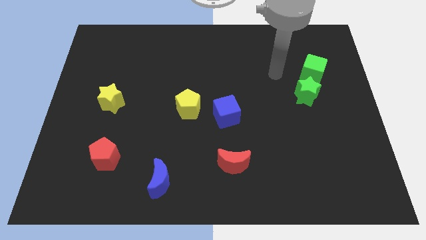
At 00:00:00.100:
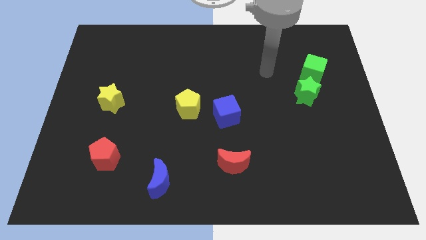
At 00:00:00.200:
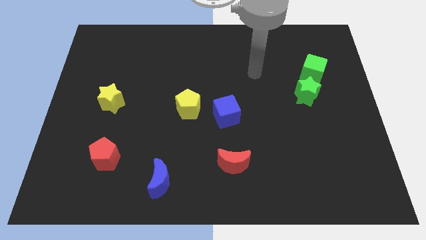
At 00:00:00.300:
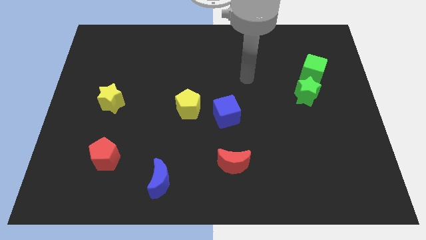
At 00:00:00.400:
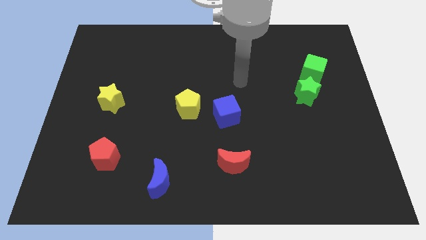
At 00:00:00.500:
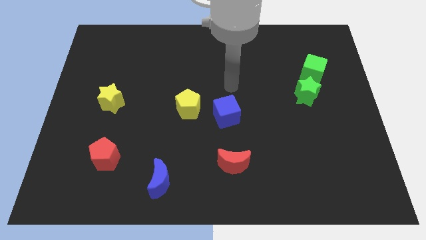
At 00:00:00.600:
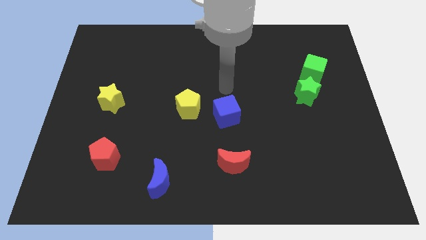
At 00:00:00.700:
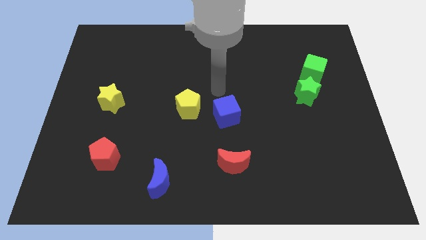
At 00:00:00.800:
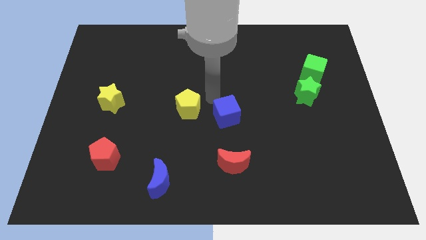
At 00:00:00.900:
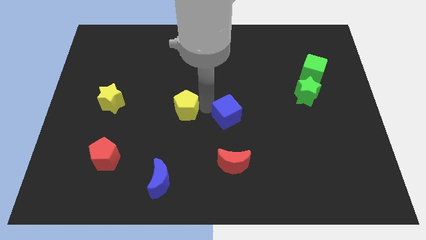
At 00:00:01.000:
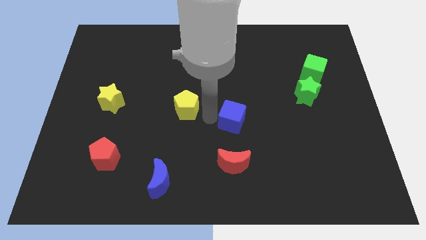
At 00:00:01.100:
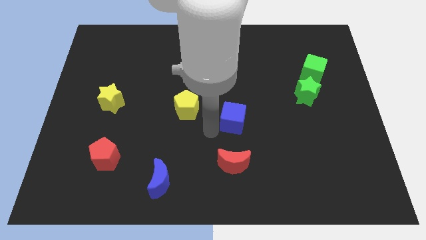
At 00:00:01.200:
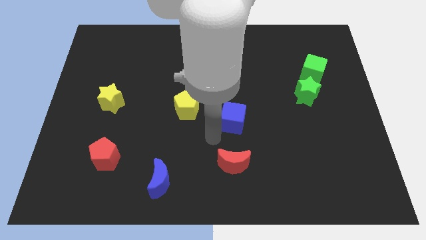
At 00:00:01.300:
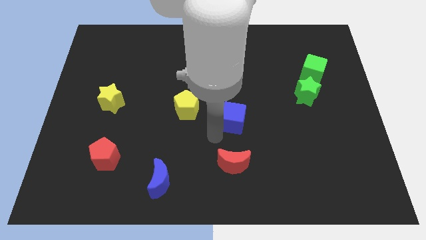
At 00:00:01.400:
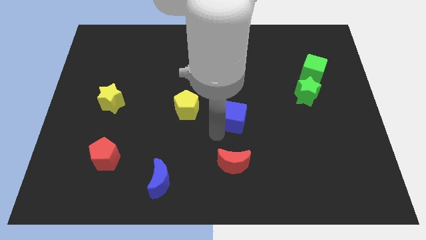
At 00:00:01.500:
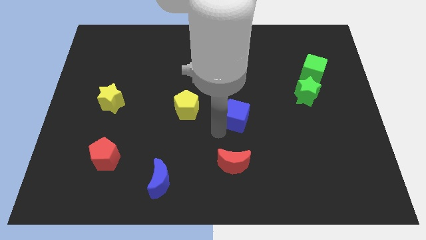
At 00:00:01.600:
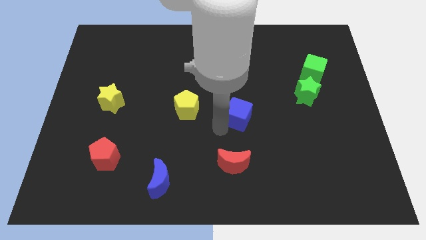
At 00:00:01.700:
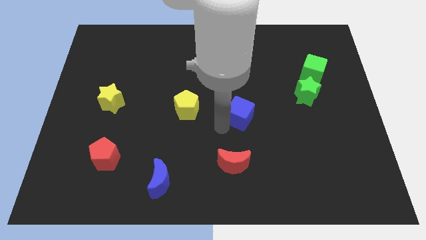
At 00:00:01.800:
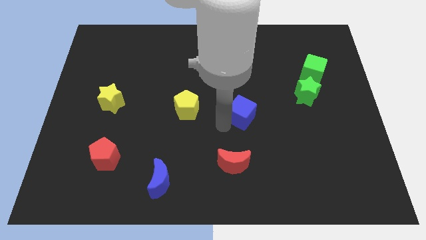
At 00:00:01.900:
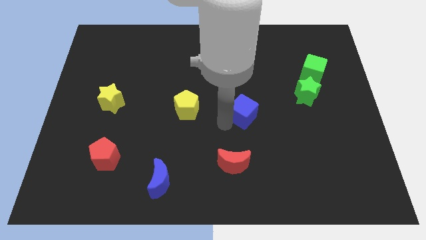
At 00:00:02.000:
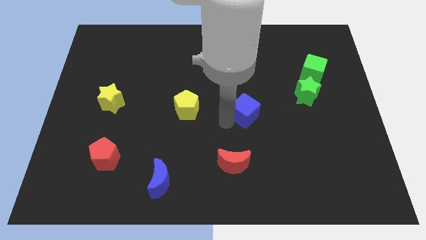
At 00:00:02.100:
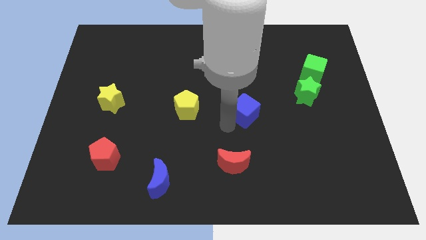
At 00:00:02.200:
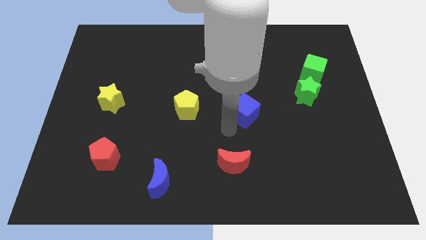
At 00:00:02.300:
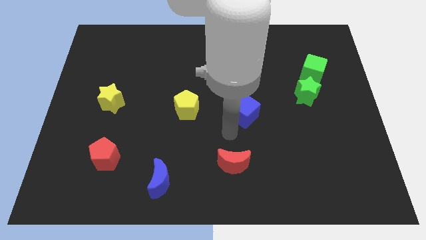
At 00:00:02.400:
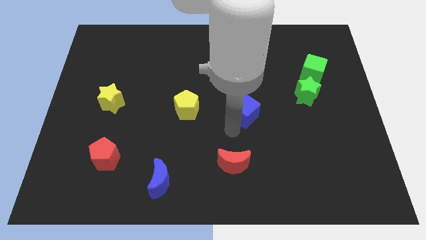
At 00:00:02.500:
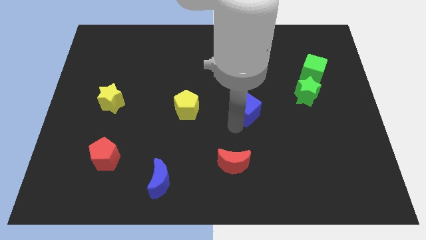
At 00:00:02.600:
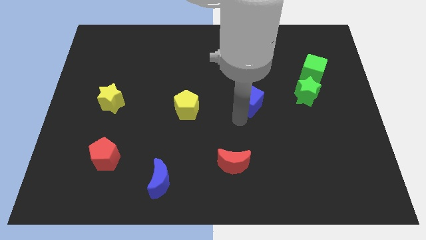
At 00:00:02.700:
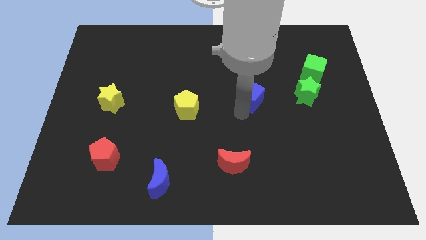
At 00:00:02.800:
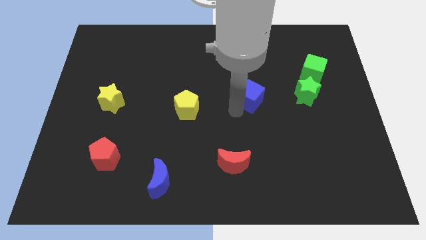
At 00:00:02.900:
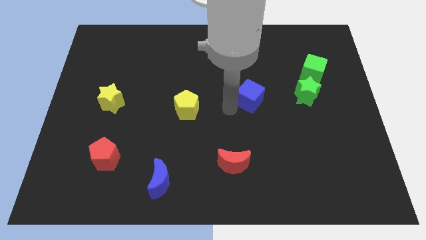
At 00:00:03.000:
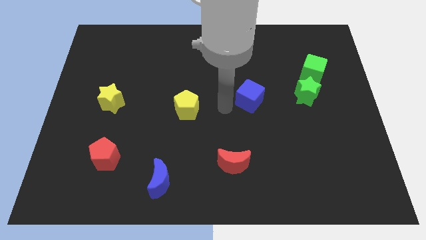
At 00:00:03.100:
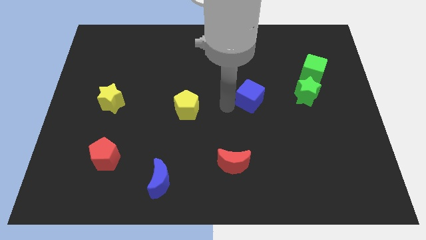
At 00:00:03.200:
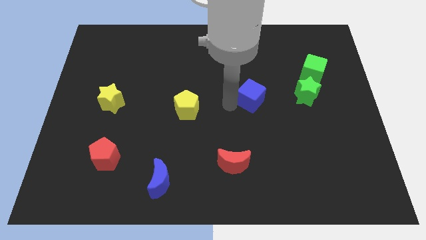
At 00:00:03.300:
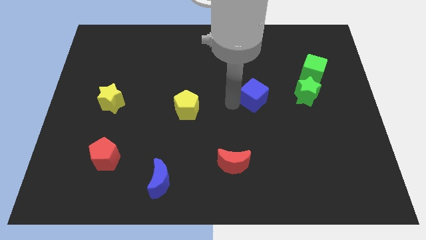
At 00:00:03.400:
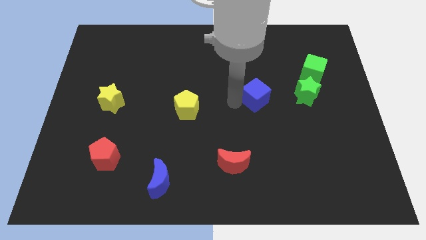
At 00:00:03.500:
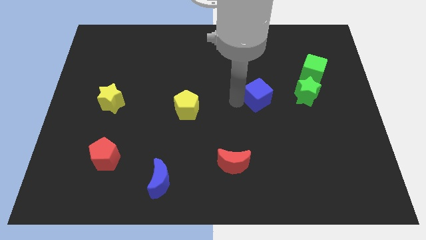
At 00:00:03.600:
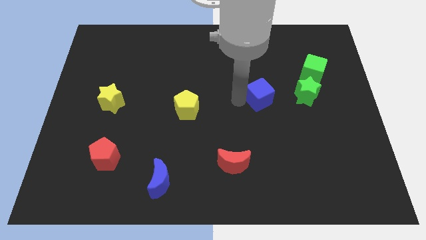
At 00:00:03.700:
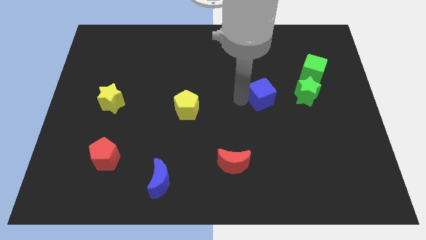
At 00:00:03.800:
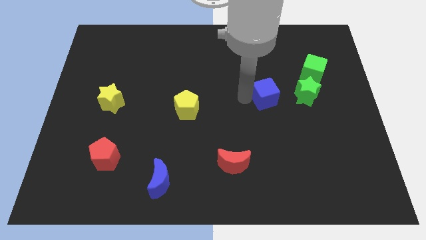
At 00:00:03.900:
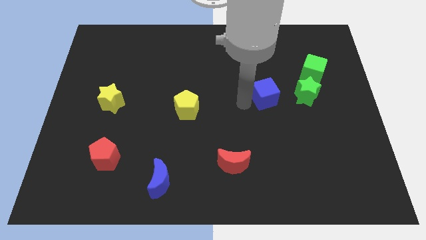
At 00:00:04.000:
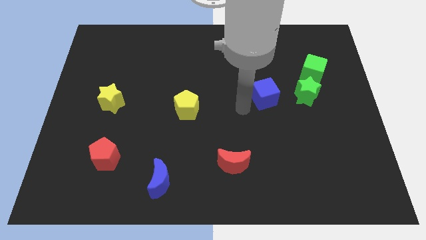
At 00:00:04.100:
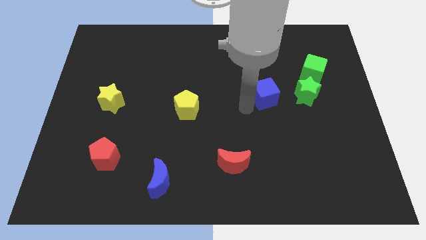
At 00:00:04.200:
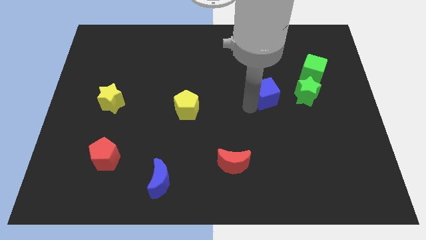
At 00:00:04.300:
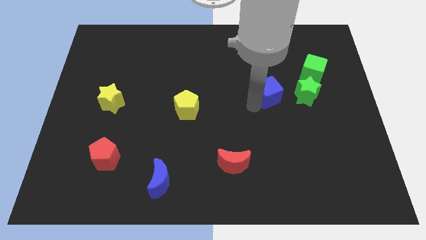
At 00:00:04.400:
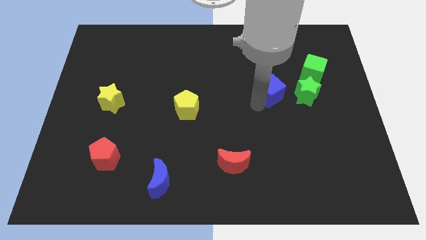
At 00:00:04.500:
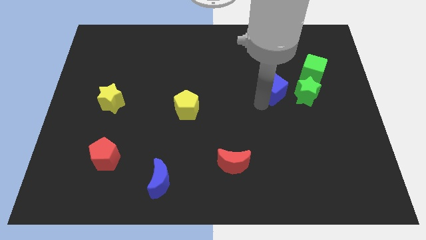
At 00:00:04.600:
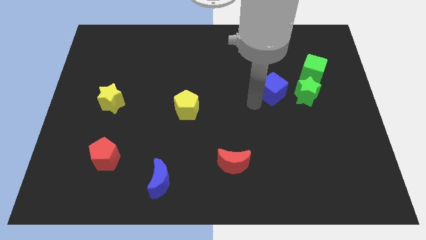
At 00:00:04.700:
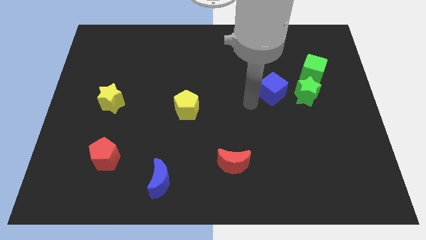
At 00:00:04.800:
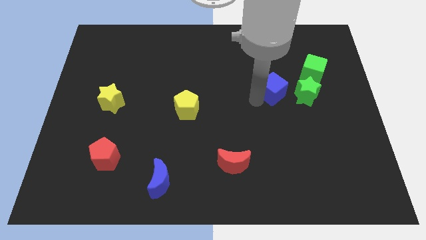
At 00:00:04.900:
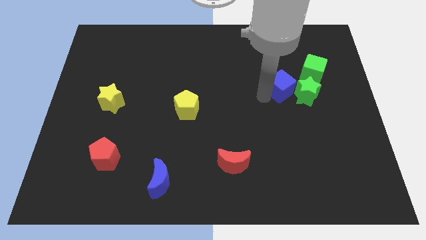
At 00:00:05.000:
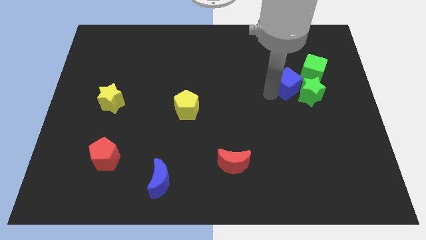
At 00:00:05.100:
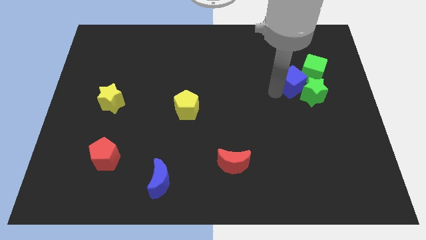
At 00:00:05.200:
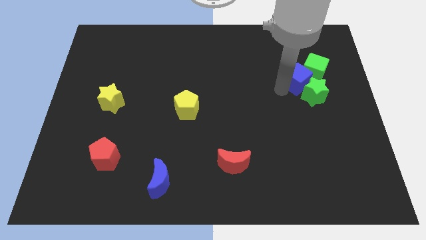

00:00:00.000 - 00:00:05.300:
move the blue cube next to the green cube

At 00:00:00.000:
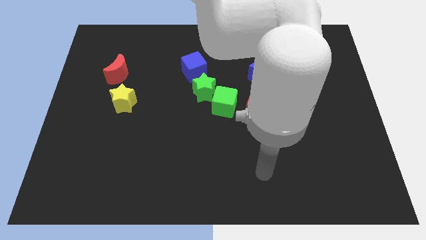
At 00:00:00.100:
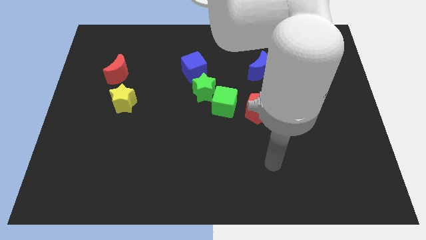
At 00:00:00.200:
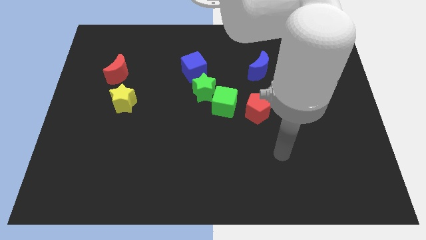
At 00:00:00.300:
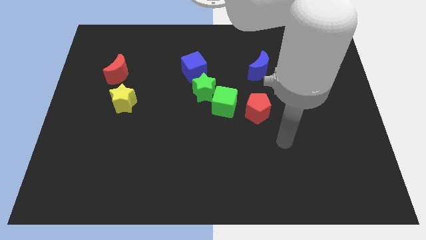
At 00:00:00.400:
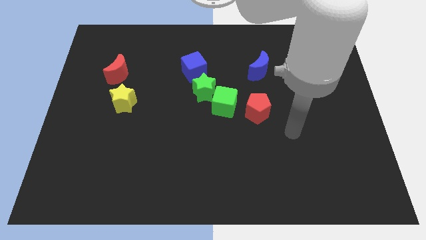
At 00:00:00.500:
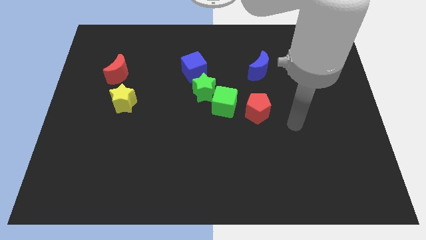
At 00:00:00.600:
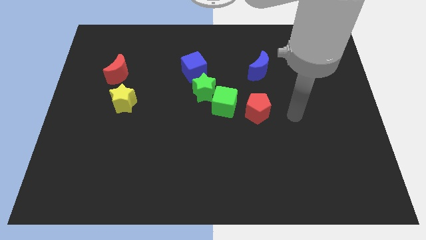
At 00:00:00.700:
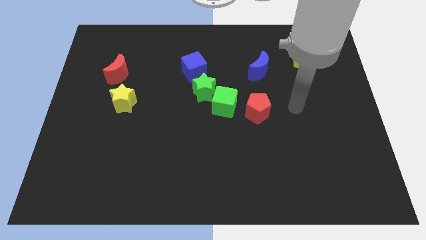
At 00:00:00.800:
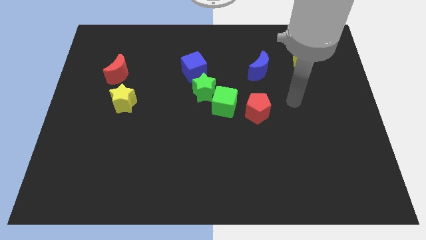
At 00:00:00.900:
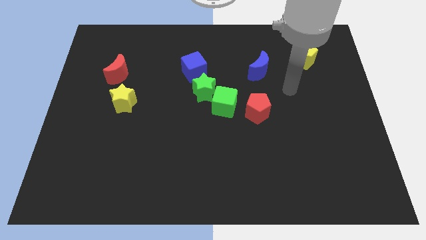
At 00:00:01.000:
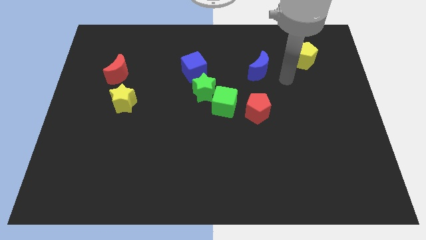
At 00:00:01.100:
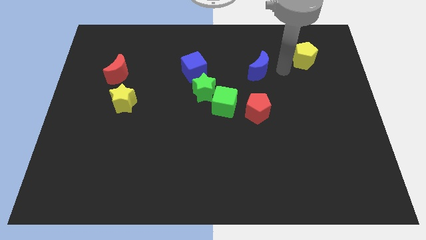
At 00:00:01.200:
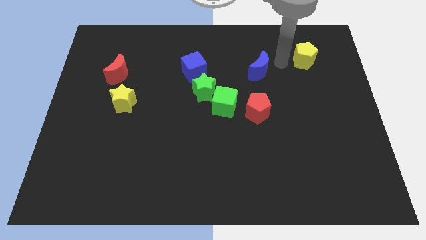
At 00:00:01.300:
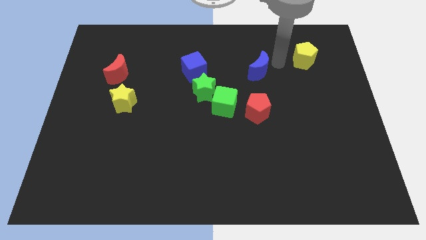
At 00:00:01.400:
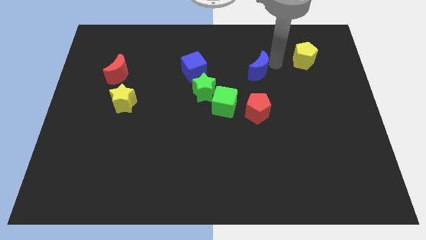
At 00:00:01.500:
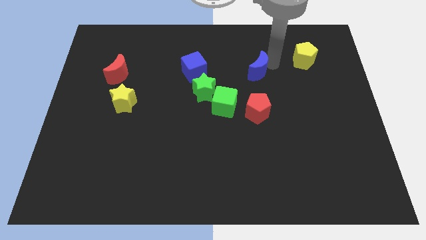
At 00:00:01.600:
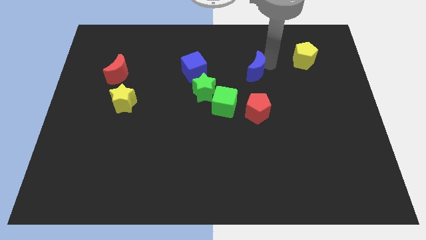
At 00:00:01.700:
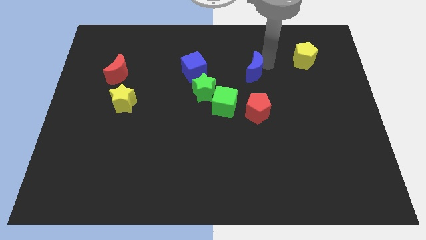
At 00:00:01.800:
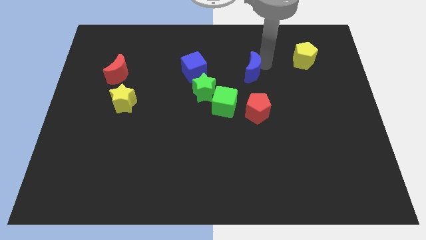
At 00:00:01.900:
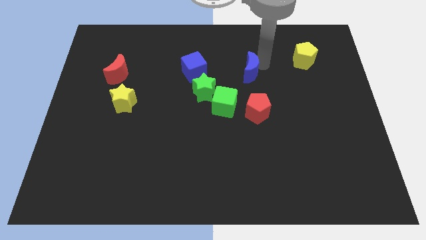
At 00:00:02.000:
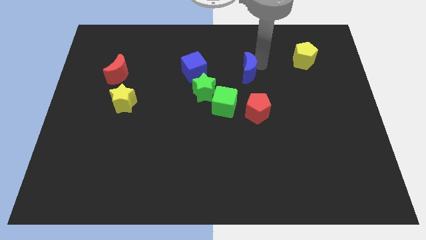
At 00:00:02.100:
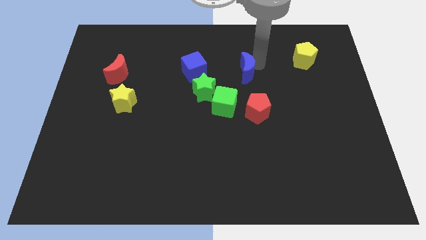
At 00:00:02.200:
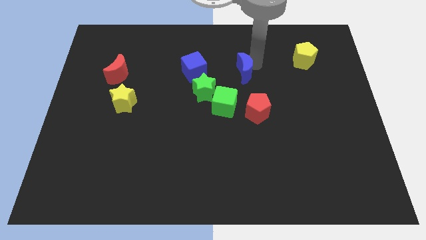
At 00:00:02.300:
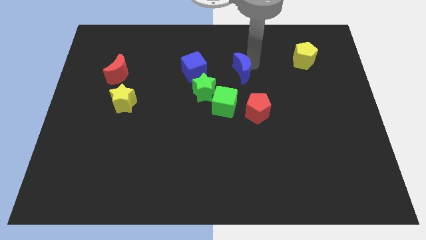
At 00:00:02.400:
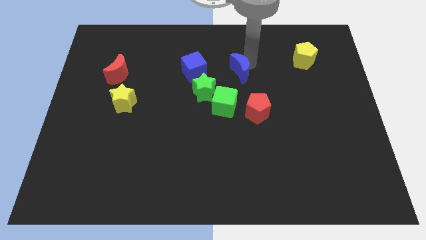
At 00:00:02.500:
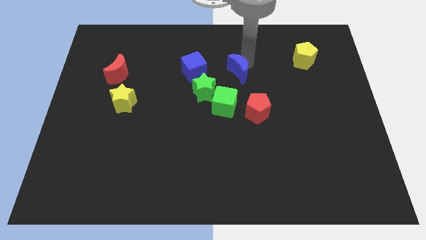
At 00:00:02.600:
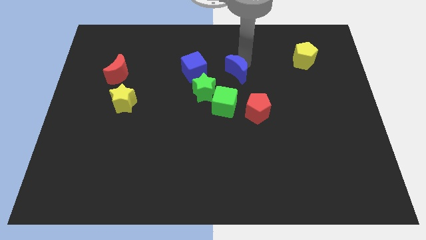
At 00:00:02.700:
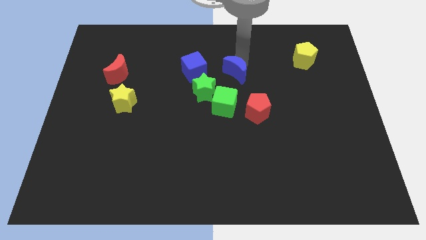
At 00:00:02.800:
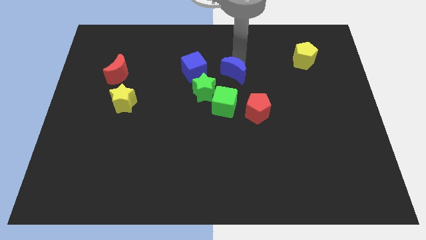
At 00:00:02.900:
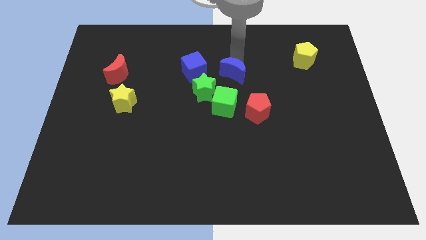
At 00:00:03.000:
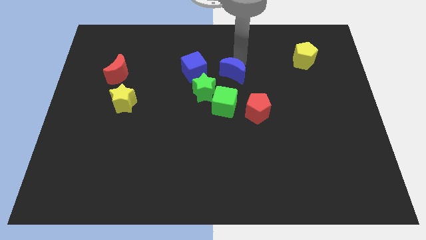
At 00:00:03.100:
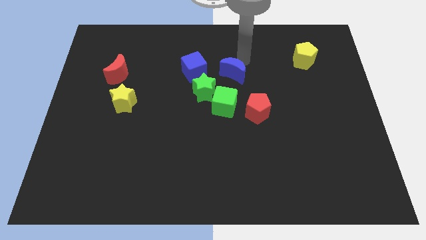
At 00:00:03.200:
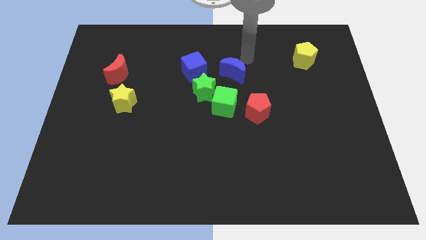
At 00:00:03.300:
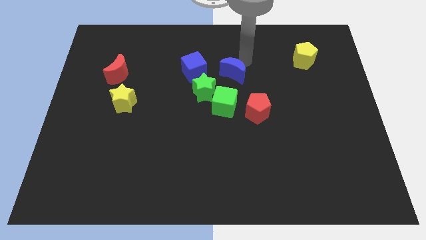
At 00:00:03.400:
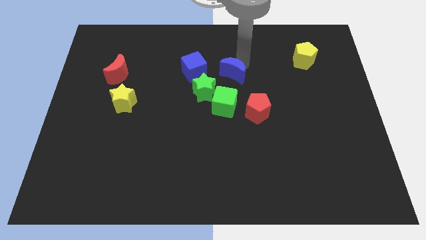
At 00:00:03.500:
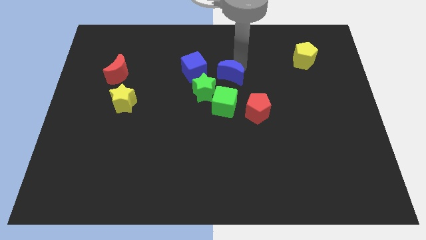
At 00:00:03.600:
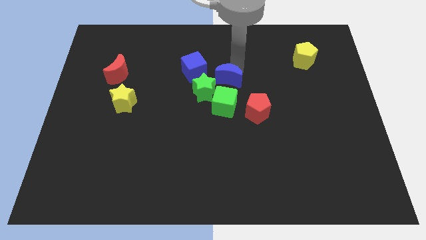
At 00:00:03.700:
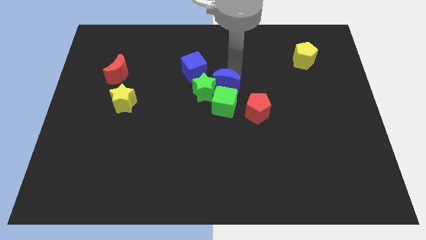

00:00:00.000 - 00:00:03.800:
put the blue moon next to the green star
